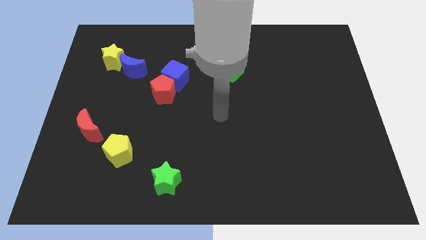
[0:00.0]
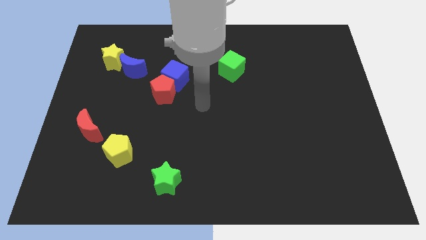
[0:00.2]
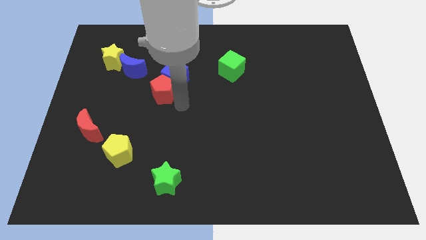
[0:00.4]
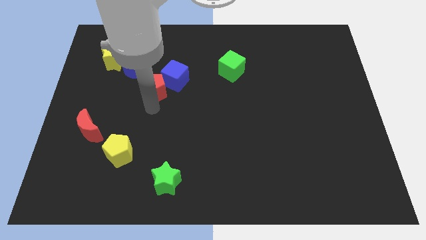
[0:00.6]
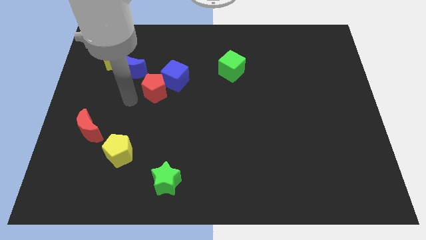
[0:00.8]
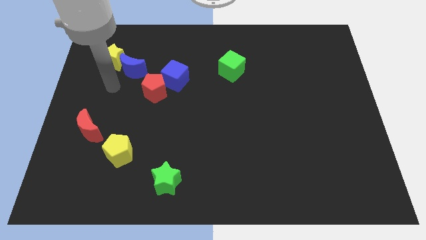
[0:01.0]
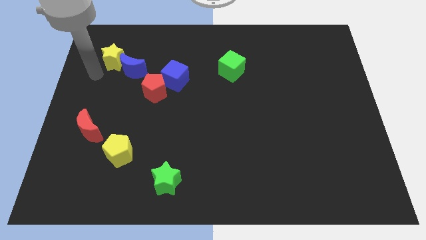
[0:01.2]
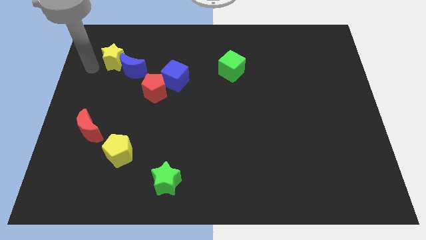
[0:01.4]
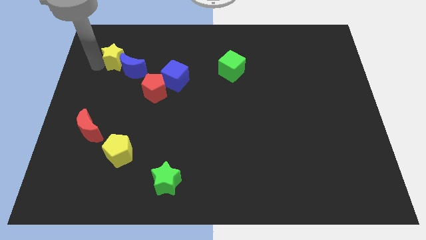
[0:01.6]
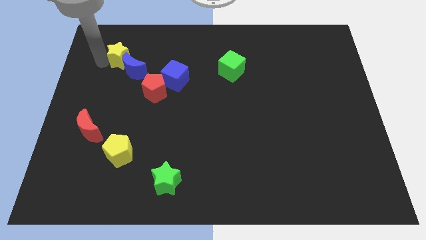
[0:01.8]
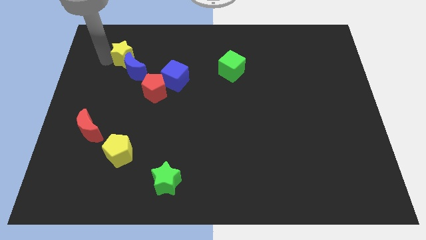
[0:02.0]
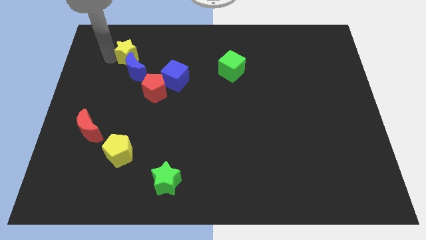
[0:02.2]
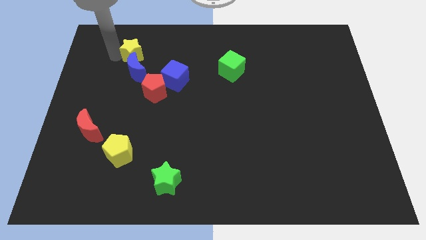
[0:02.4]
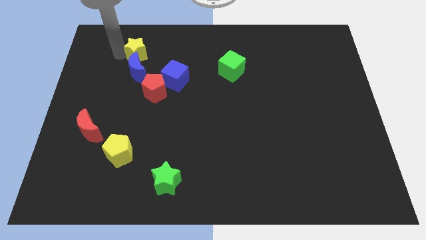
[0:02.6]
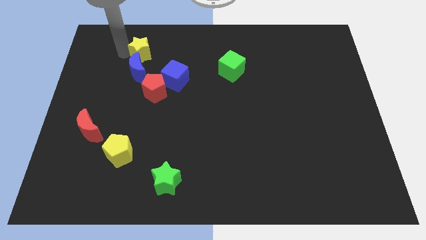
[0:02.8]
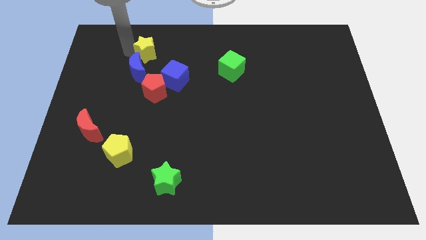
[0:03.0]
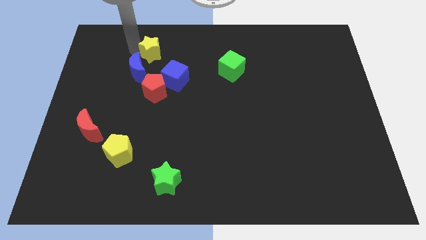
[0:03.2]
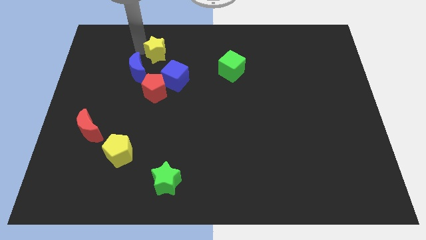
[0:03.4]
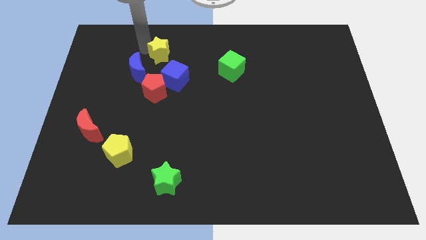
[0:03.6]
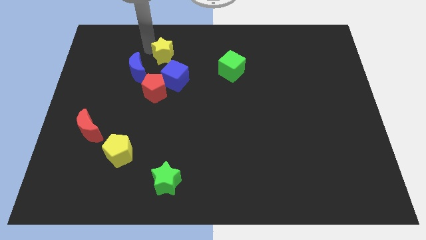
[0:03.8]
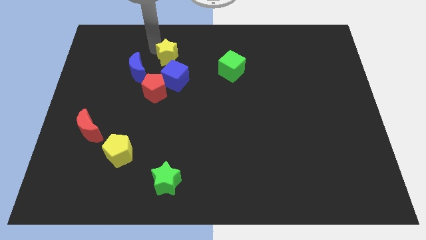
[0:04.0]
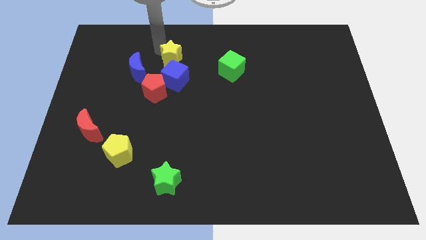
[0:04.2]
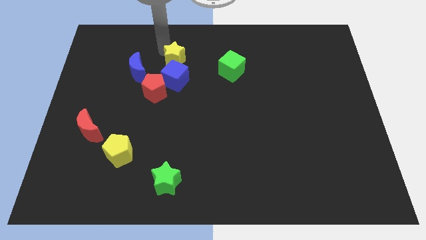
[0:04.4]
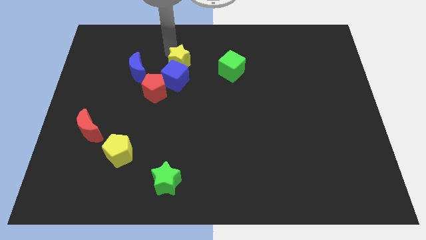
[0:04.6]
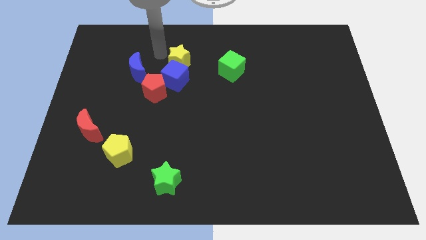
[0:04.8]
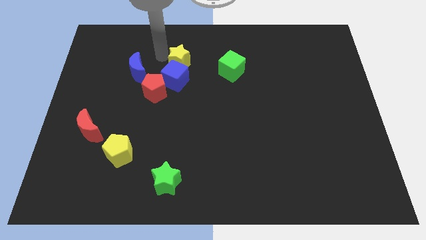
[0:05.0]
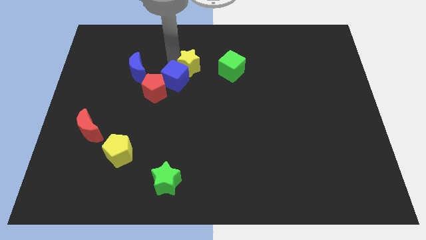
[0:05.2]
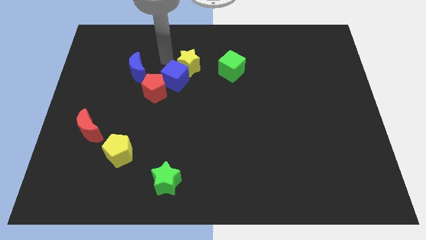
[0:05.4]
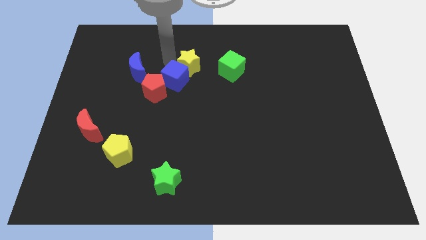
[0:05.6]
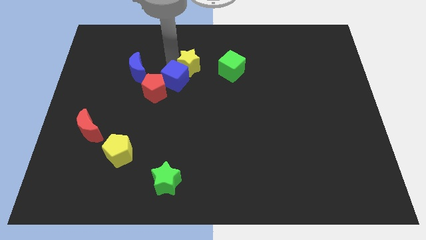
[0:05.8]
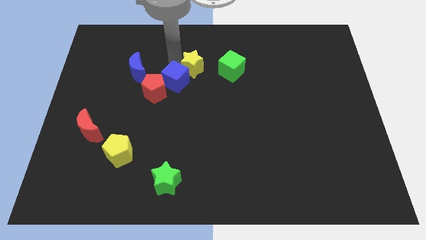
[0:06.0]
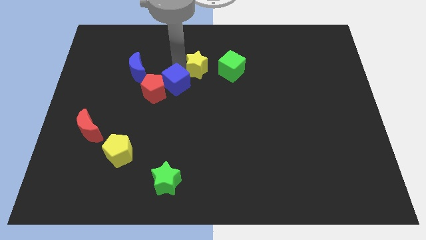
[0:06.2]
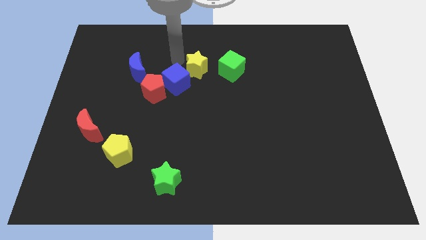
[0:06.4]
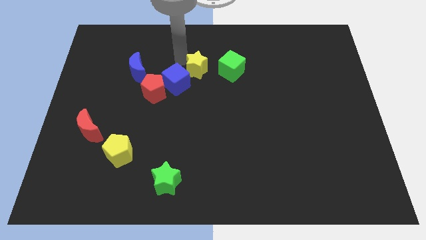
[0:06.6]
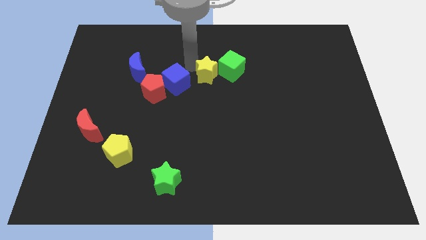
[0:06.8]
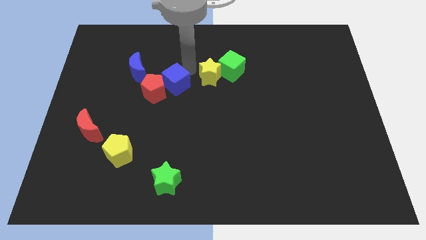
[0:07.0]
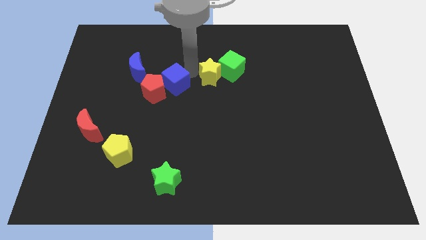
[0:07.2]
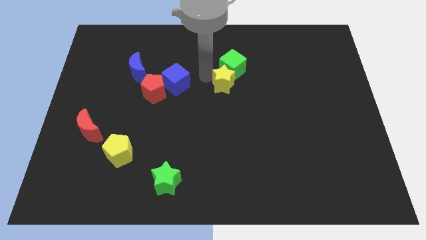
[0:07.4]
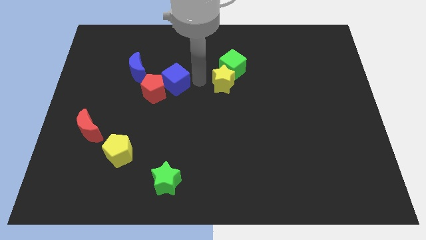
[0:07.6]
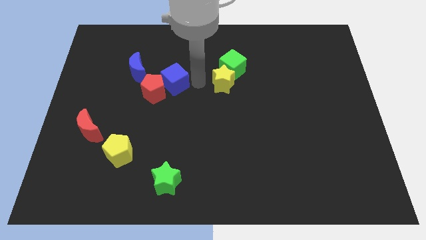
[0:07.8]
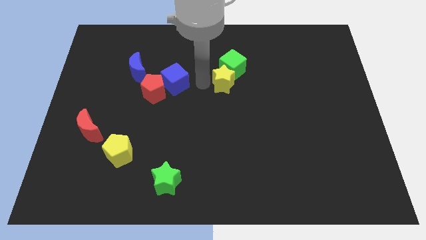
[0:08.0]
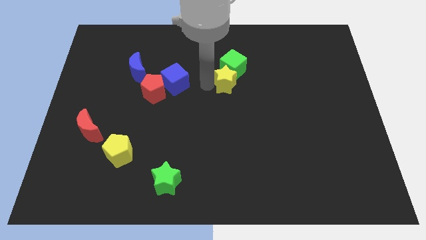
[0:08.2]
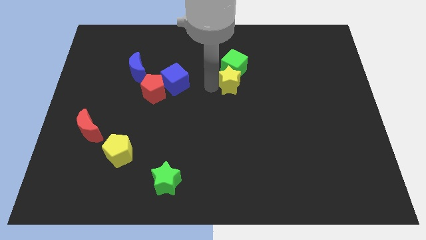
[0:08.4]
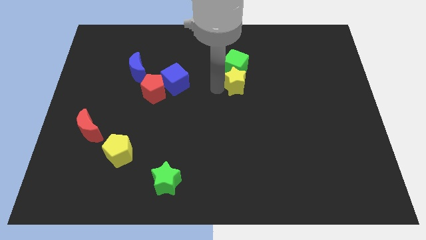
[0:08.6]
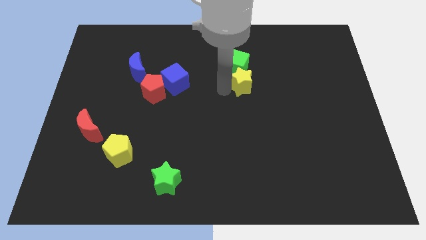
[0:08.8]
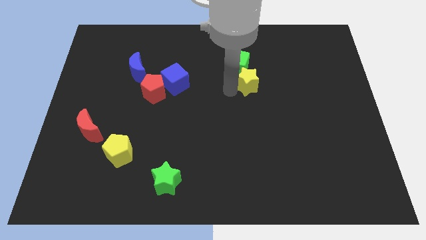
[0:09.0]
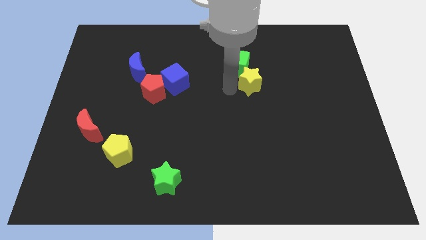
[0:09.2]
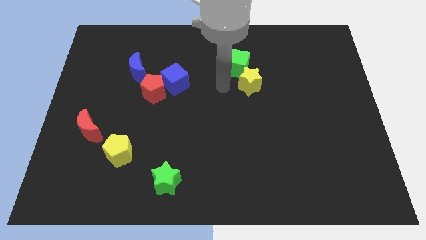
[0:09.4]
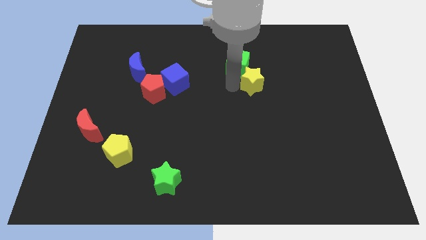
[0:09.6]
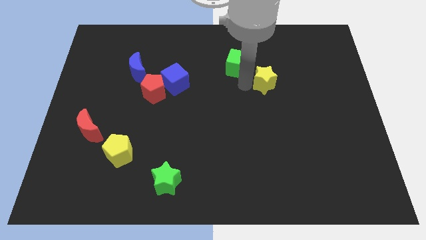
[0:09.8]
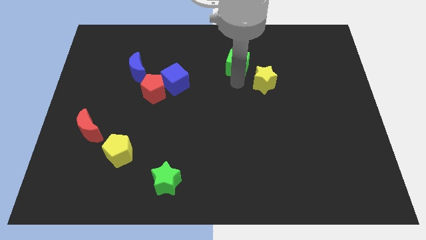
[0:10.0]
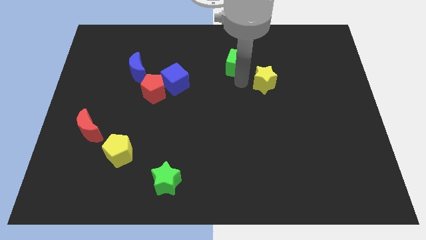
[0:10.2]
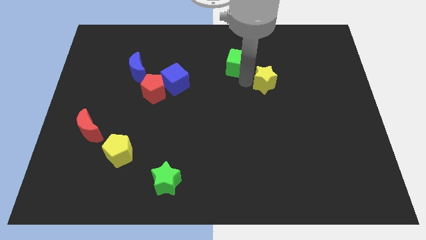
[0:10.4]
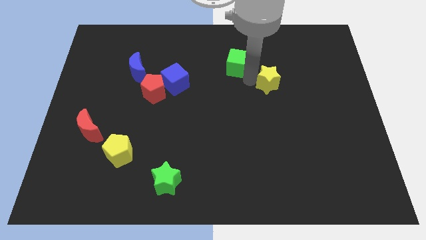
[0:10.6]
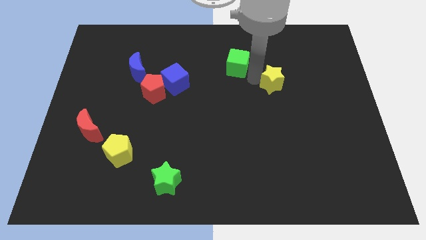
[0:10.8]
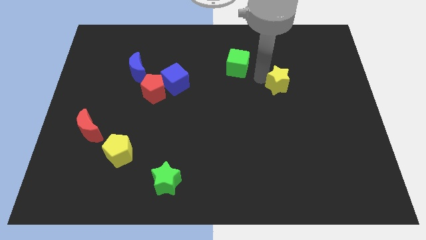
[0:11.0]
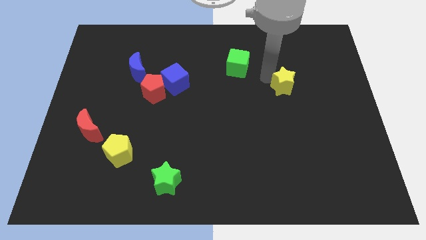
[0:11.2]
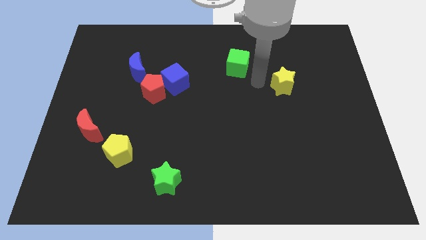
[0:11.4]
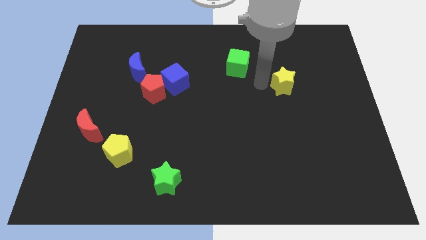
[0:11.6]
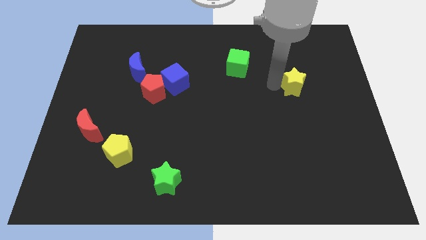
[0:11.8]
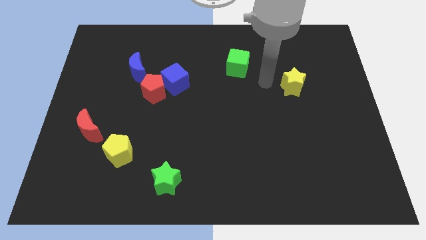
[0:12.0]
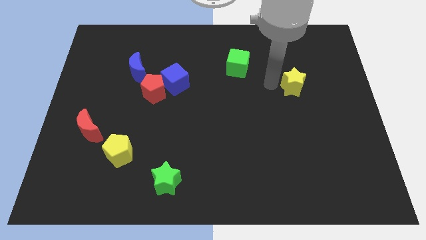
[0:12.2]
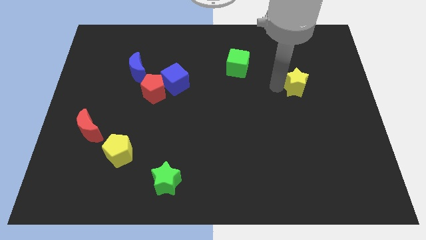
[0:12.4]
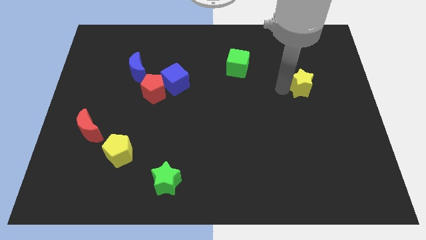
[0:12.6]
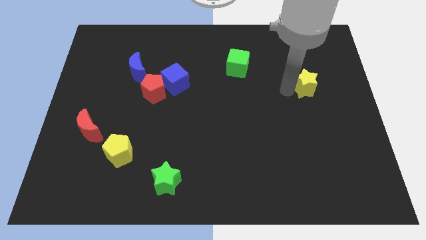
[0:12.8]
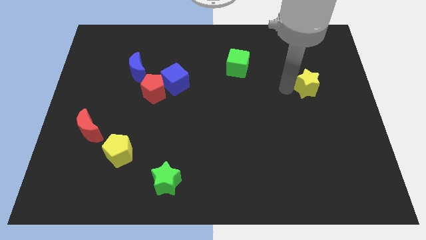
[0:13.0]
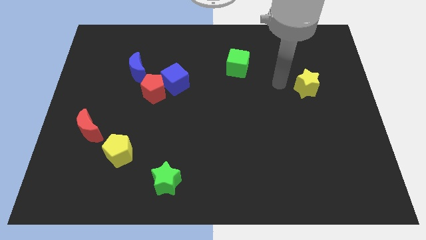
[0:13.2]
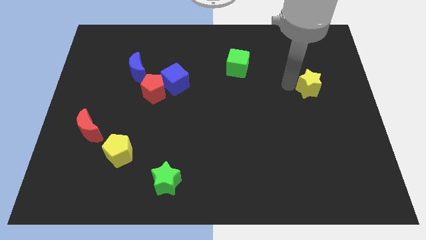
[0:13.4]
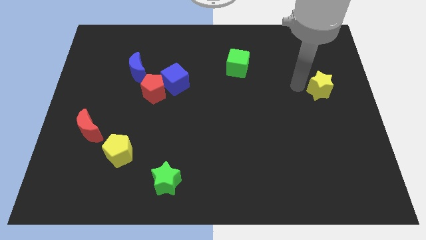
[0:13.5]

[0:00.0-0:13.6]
move the yellow star to the right side of the board

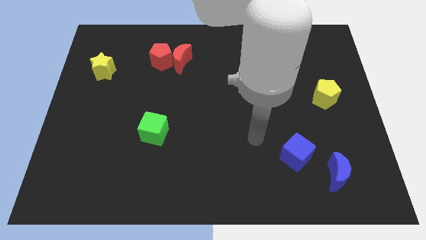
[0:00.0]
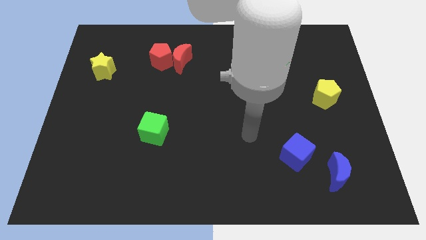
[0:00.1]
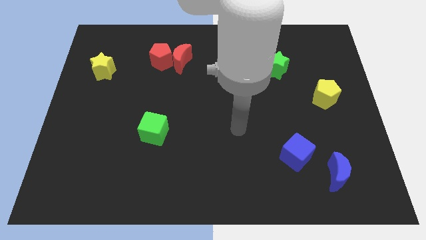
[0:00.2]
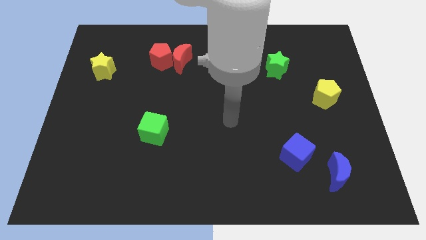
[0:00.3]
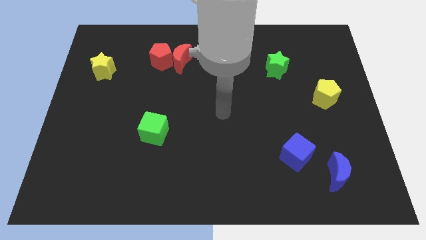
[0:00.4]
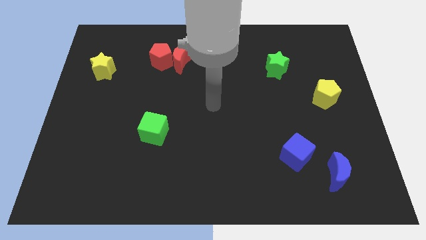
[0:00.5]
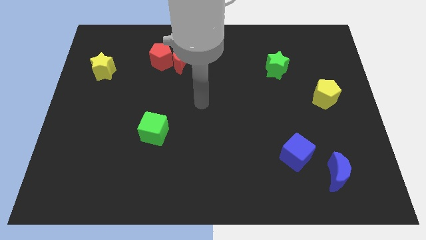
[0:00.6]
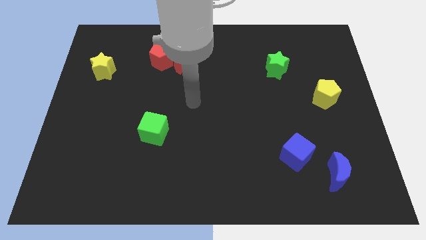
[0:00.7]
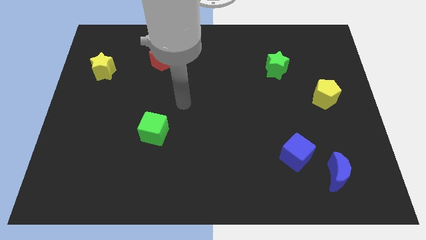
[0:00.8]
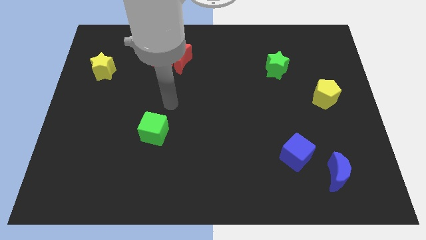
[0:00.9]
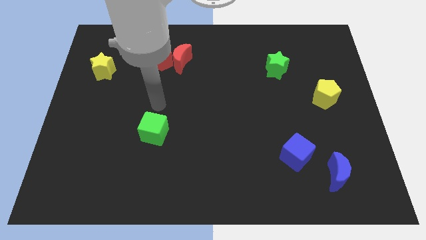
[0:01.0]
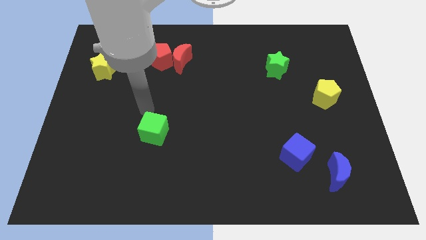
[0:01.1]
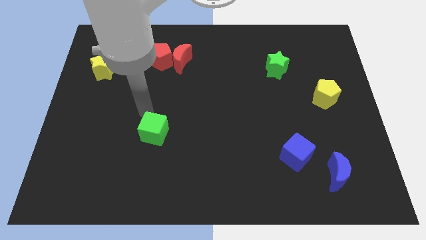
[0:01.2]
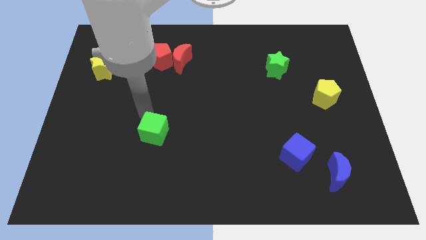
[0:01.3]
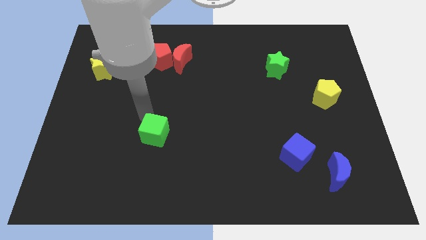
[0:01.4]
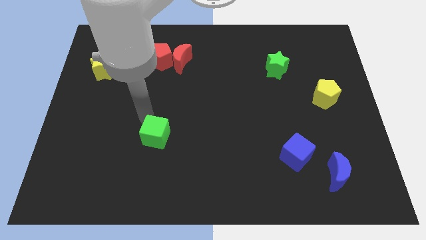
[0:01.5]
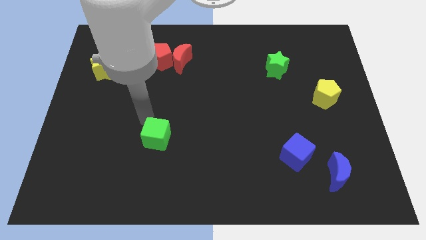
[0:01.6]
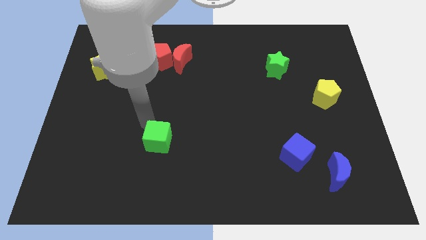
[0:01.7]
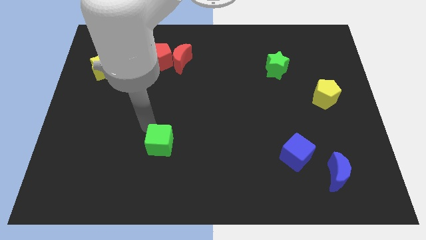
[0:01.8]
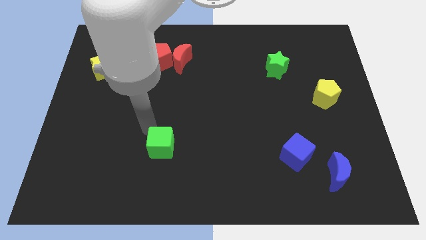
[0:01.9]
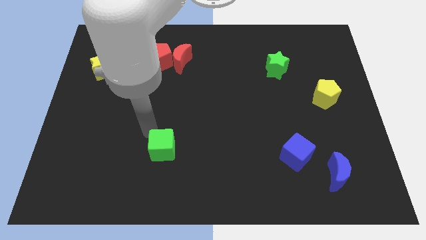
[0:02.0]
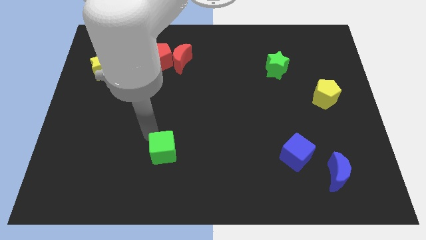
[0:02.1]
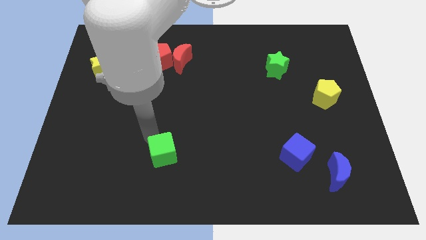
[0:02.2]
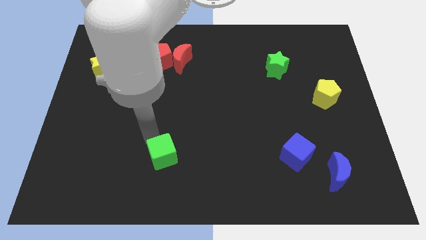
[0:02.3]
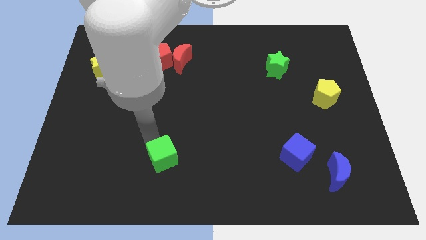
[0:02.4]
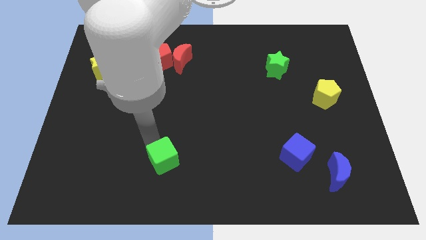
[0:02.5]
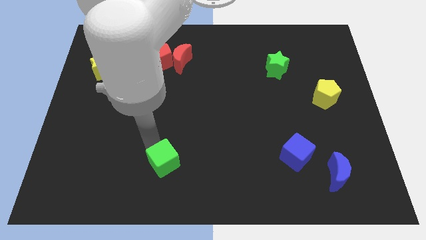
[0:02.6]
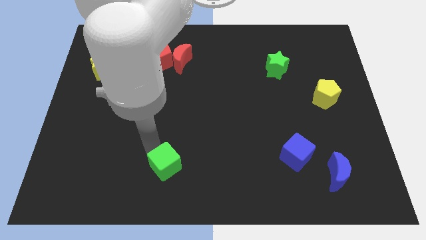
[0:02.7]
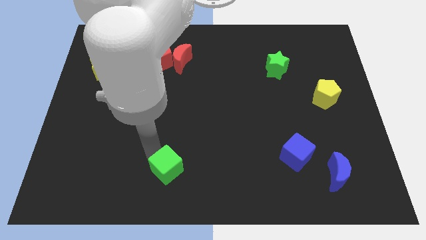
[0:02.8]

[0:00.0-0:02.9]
put the green cube to the bottom
